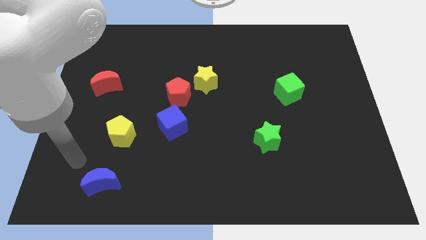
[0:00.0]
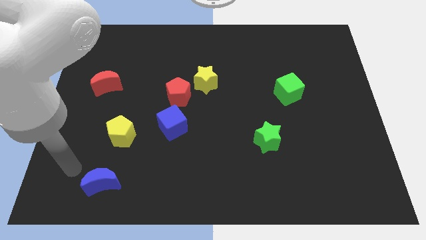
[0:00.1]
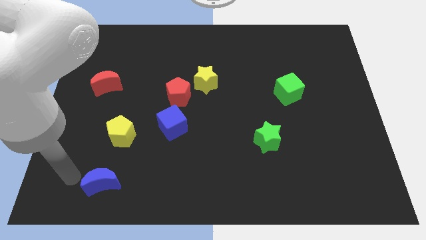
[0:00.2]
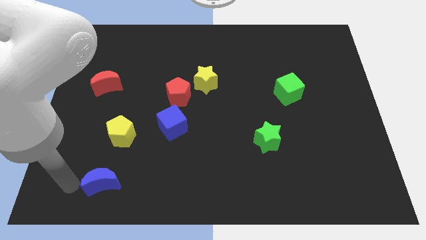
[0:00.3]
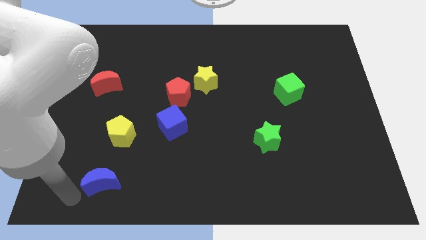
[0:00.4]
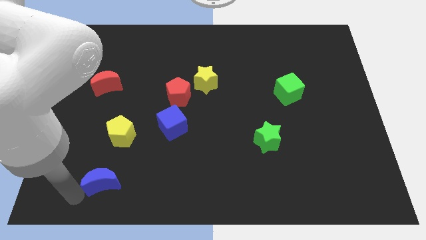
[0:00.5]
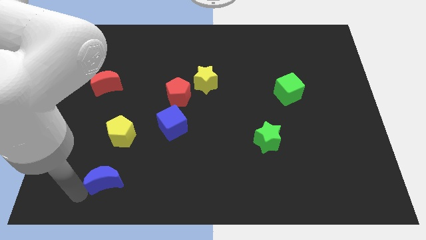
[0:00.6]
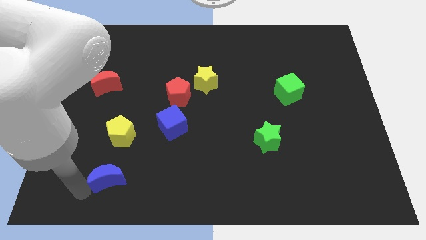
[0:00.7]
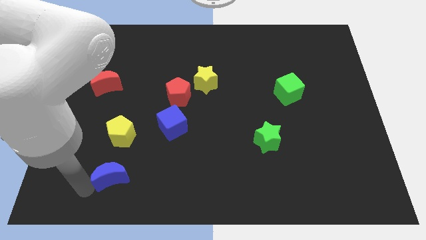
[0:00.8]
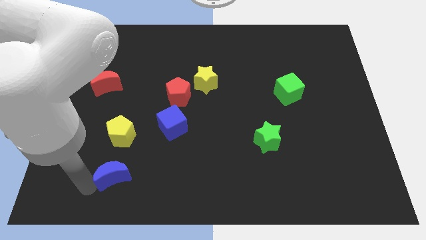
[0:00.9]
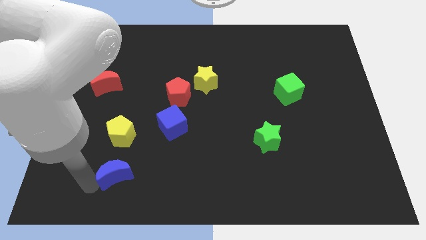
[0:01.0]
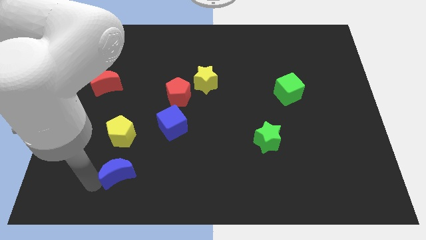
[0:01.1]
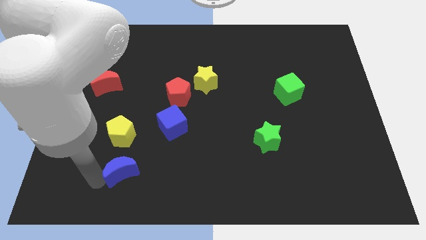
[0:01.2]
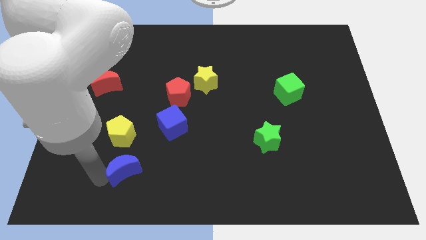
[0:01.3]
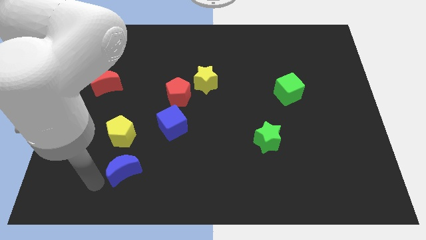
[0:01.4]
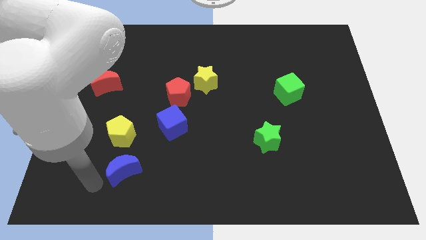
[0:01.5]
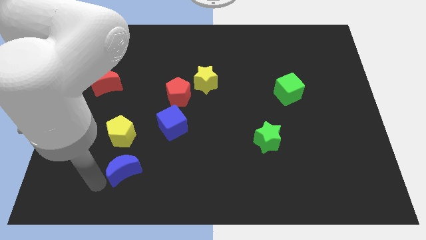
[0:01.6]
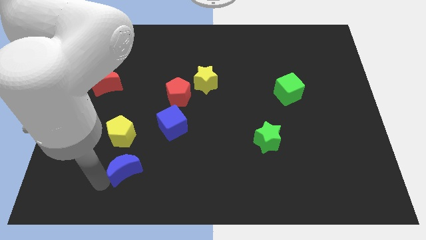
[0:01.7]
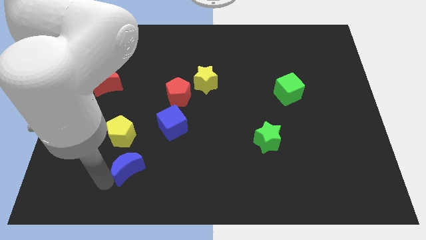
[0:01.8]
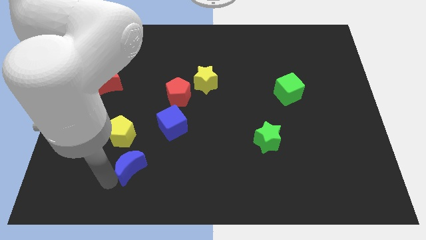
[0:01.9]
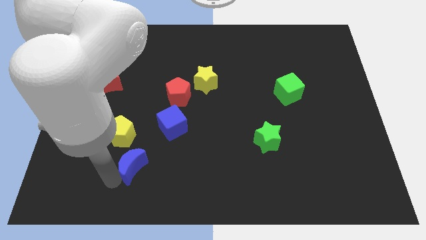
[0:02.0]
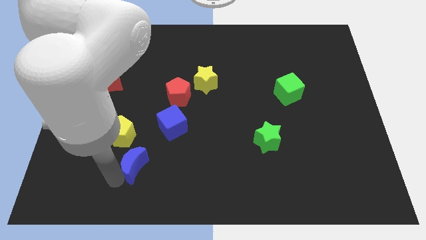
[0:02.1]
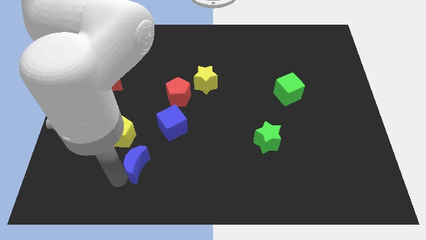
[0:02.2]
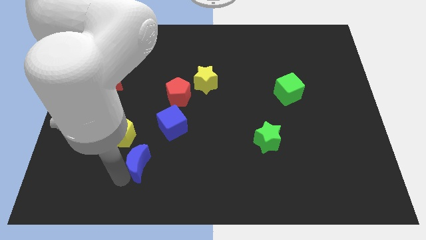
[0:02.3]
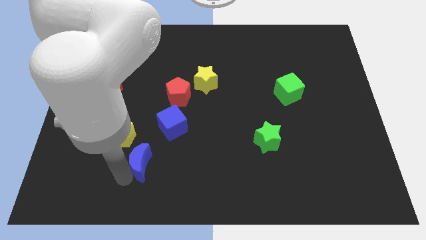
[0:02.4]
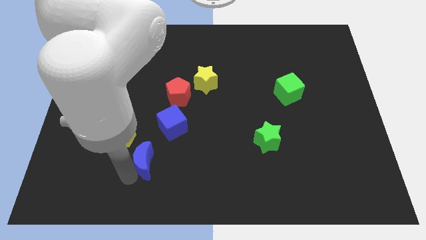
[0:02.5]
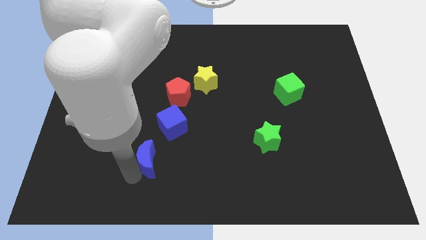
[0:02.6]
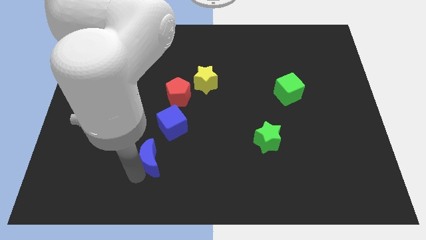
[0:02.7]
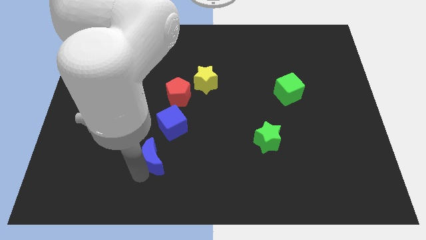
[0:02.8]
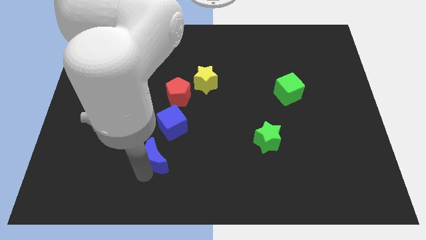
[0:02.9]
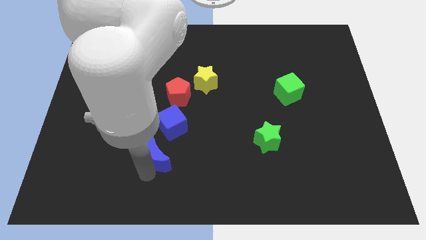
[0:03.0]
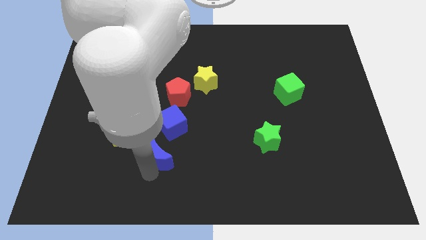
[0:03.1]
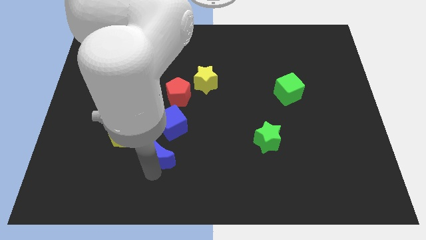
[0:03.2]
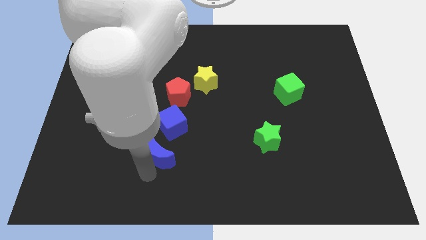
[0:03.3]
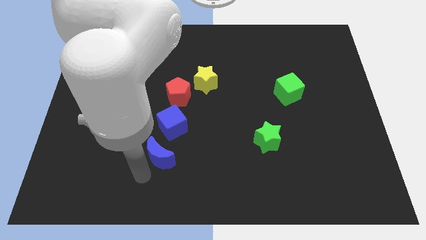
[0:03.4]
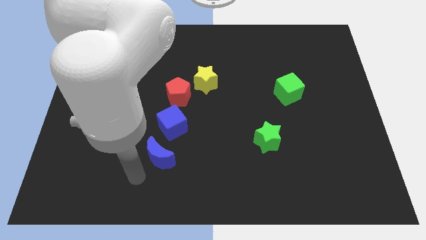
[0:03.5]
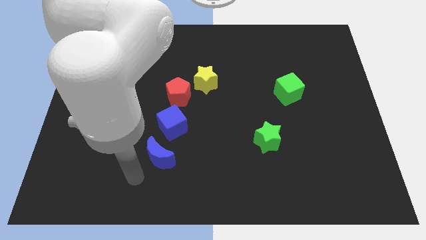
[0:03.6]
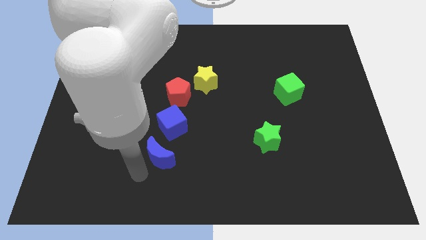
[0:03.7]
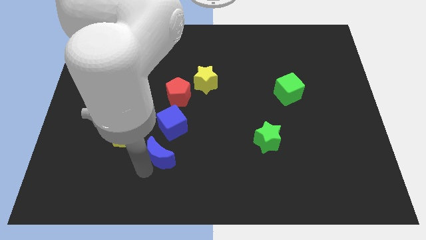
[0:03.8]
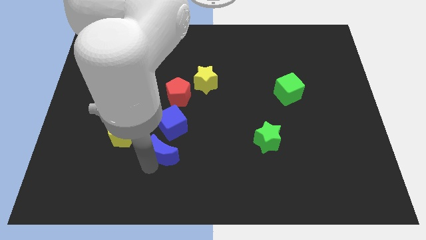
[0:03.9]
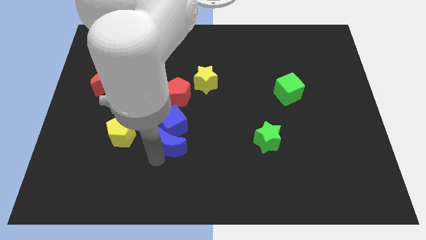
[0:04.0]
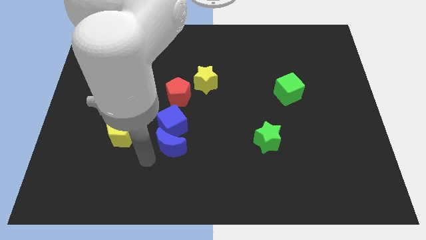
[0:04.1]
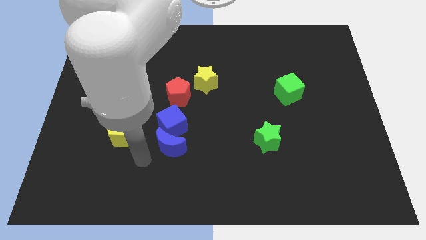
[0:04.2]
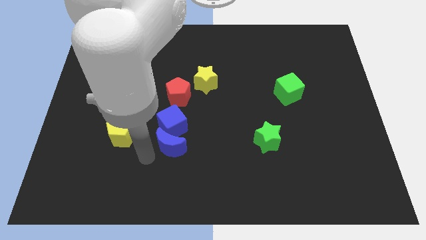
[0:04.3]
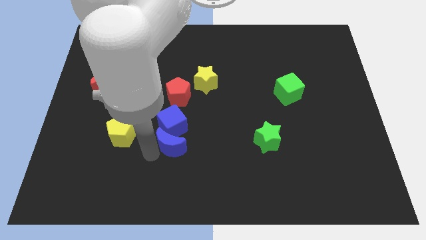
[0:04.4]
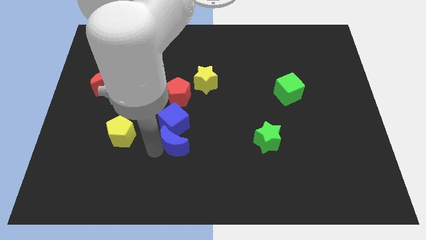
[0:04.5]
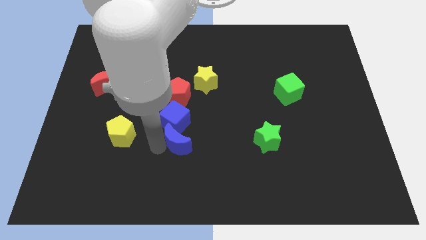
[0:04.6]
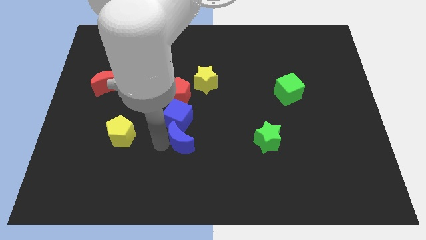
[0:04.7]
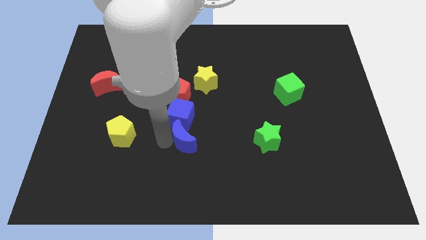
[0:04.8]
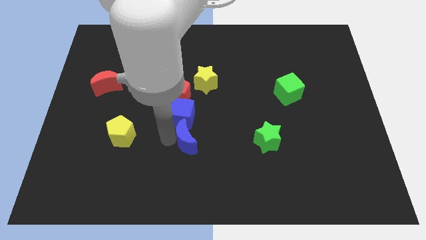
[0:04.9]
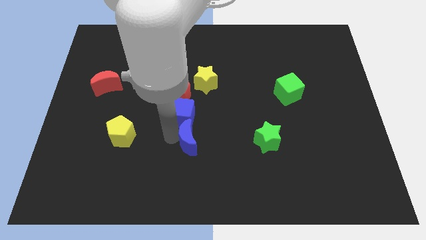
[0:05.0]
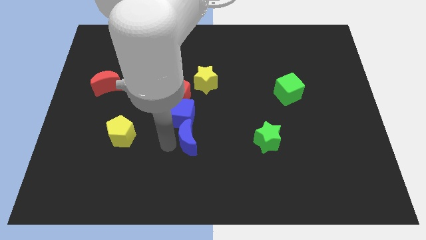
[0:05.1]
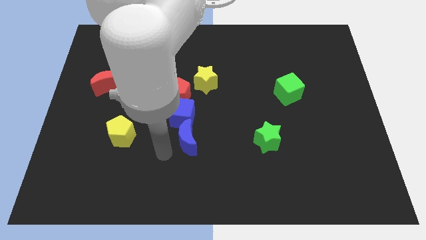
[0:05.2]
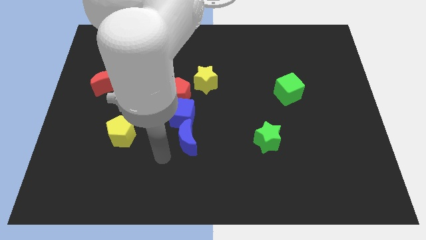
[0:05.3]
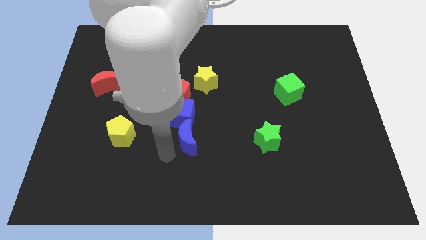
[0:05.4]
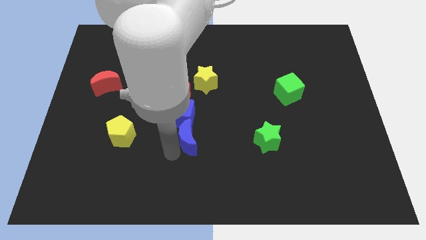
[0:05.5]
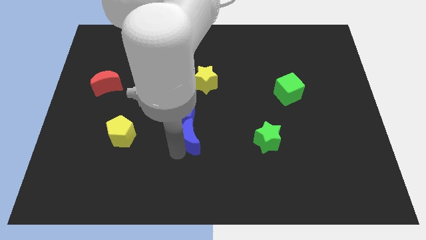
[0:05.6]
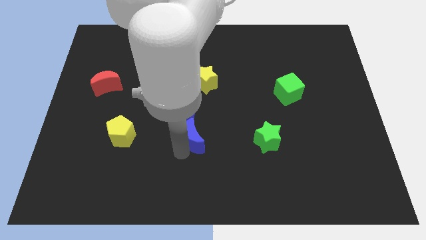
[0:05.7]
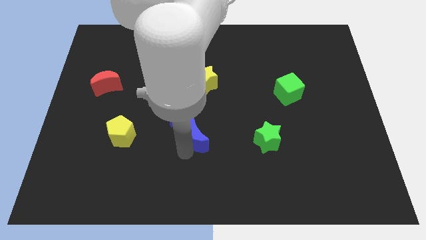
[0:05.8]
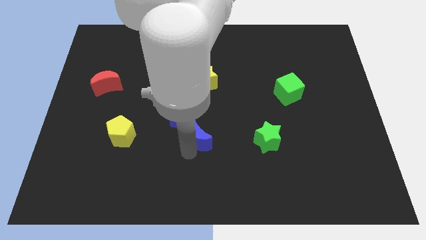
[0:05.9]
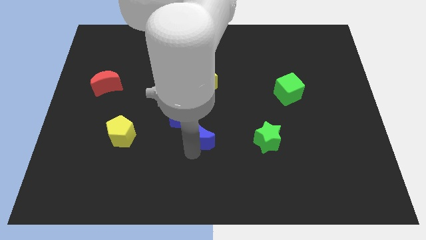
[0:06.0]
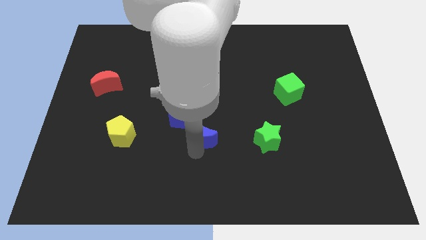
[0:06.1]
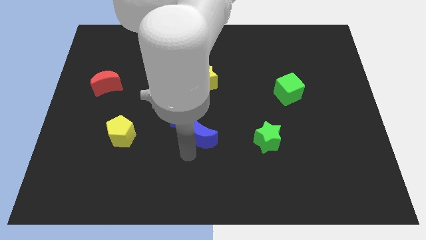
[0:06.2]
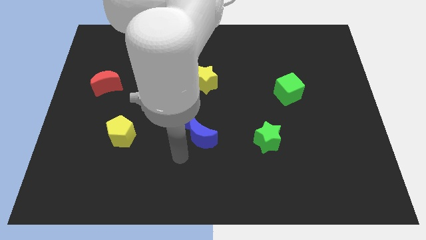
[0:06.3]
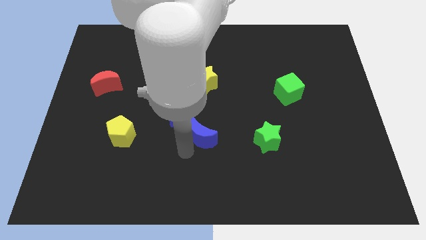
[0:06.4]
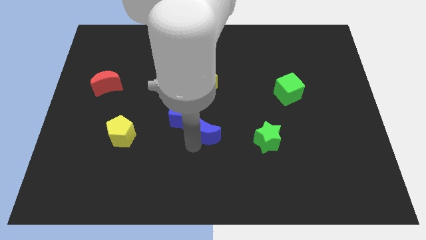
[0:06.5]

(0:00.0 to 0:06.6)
push the blue moon just right of the blue cube

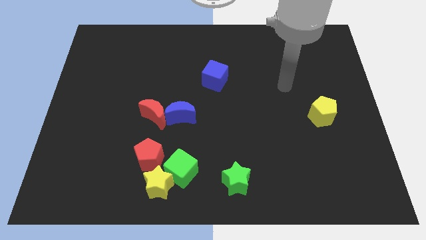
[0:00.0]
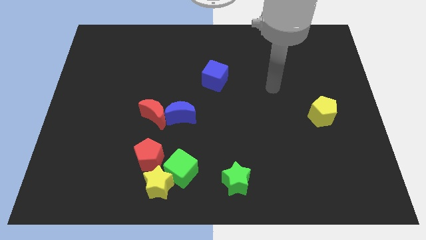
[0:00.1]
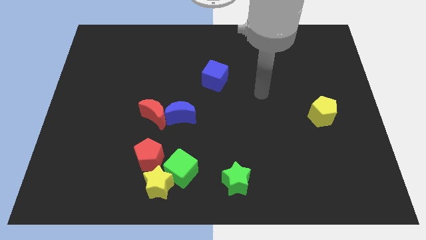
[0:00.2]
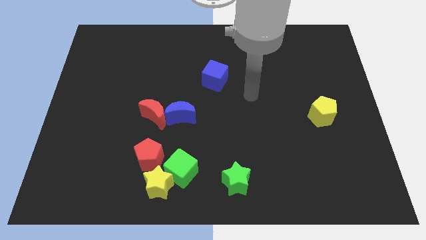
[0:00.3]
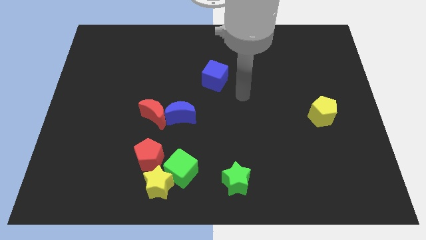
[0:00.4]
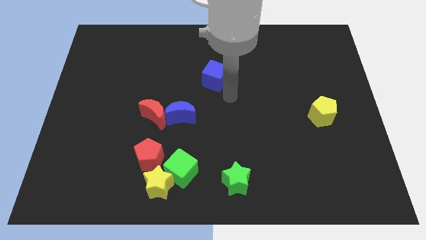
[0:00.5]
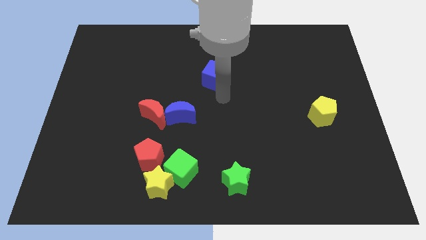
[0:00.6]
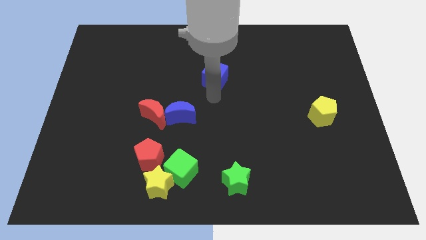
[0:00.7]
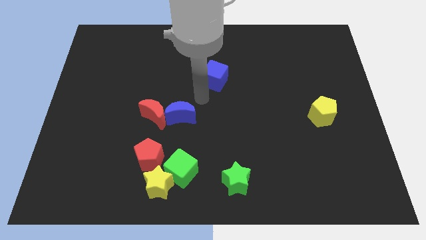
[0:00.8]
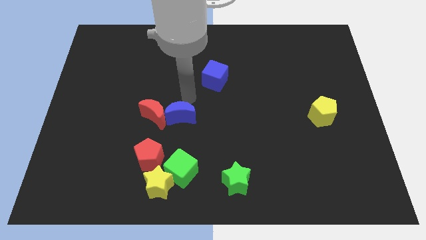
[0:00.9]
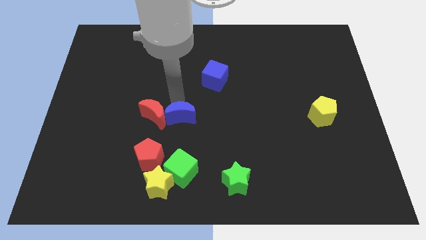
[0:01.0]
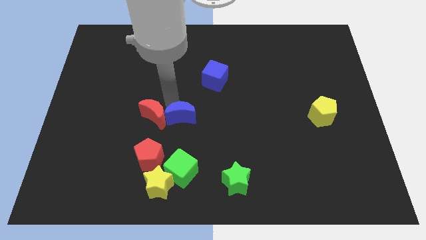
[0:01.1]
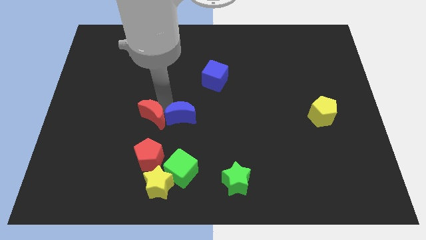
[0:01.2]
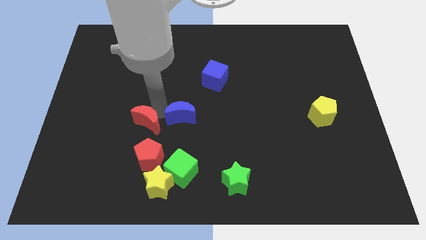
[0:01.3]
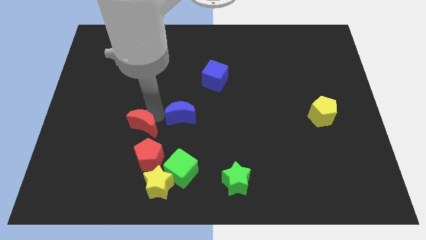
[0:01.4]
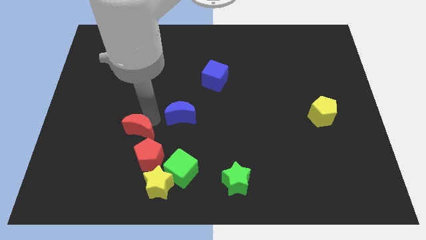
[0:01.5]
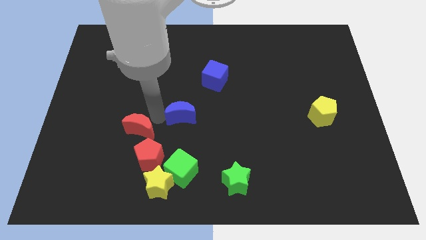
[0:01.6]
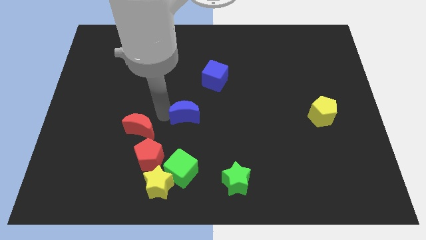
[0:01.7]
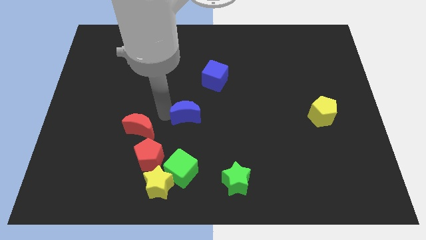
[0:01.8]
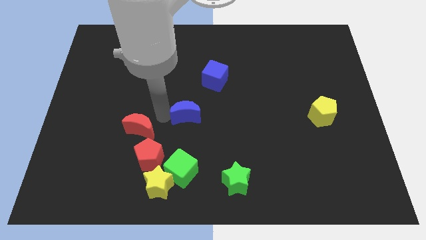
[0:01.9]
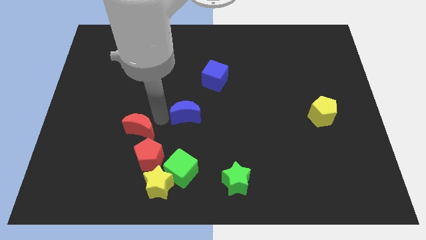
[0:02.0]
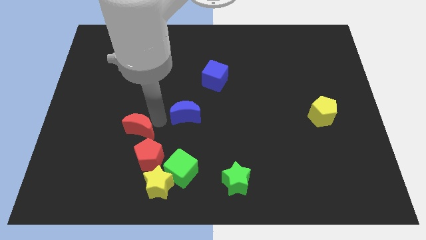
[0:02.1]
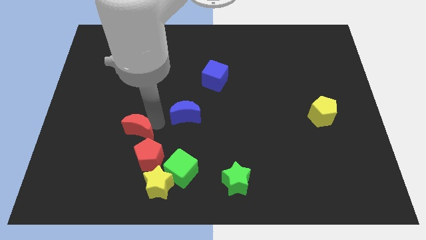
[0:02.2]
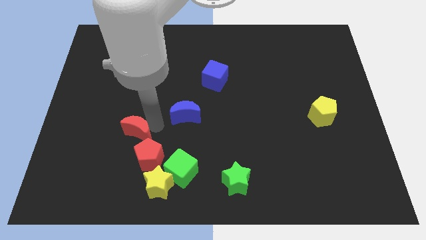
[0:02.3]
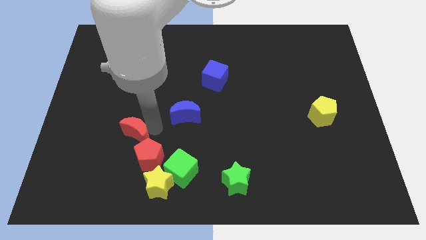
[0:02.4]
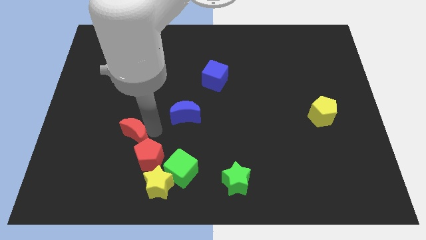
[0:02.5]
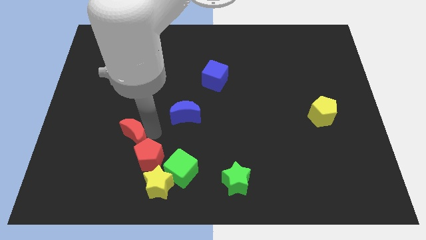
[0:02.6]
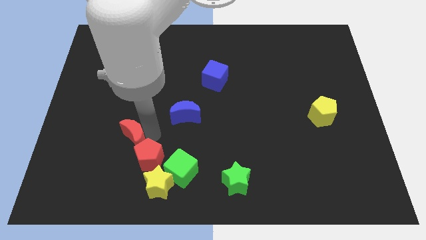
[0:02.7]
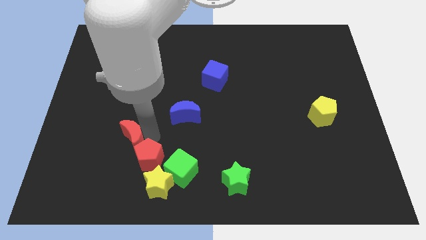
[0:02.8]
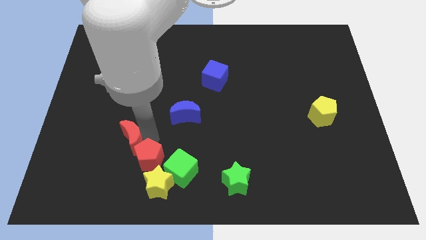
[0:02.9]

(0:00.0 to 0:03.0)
put the red moon to the left side of the red pentagon
